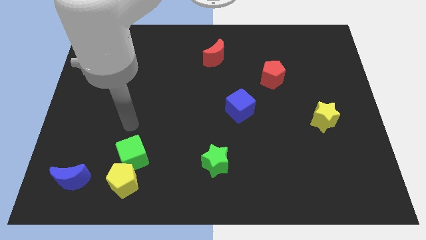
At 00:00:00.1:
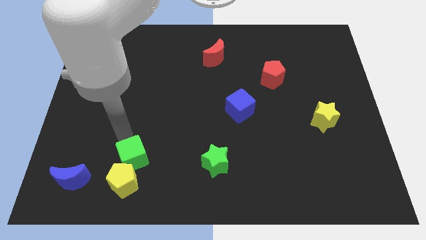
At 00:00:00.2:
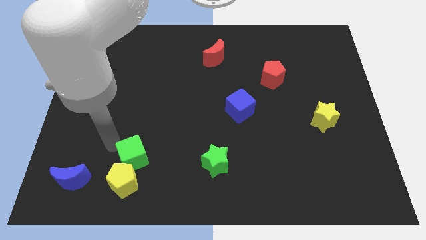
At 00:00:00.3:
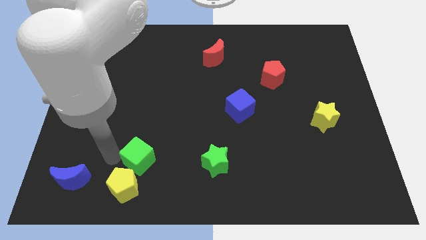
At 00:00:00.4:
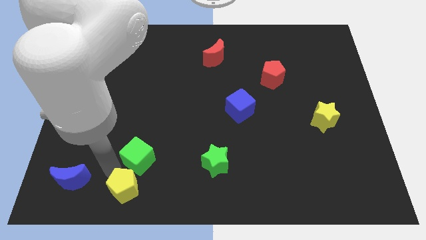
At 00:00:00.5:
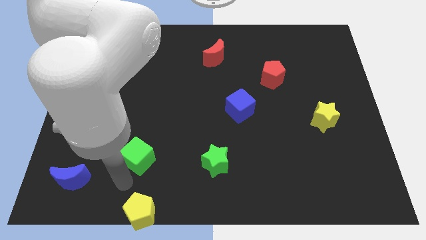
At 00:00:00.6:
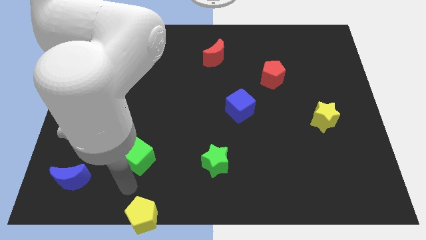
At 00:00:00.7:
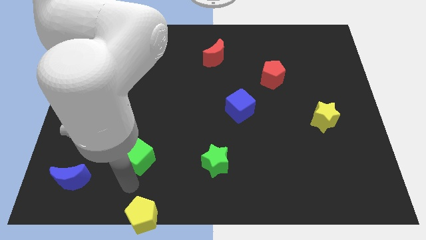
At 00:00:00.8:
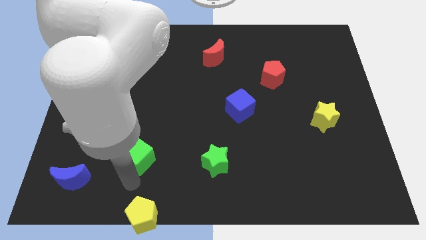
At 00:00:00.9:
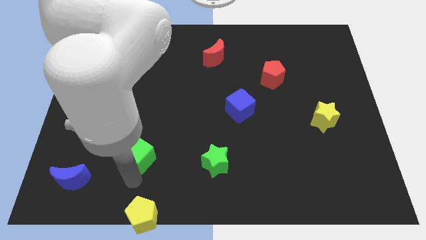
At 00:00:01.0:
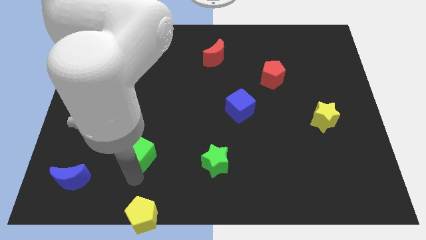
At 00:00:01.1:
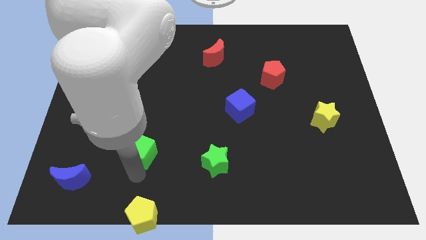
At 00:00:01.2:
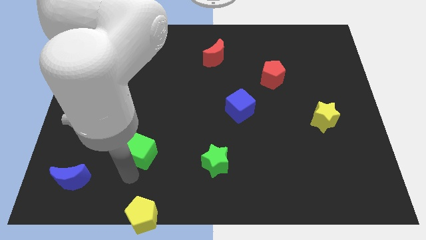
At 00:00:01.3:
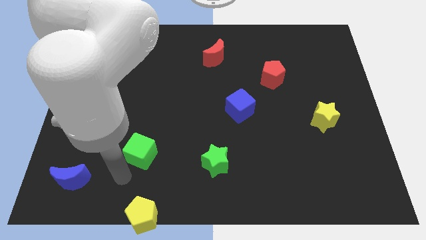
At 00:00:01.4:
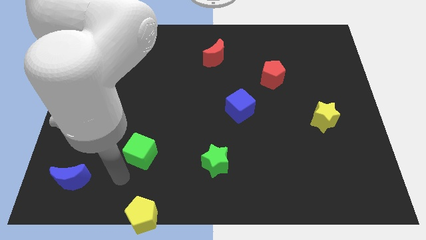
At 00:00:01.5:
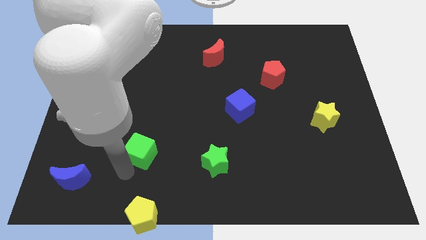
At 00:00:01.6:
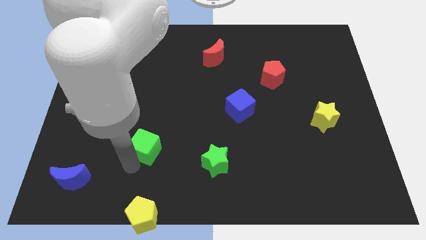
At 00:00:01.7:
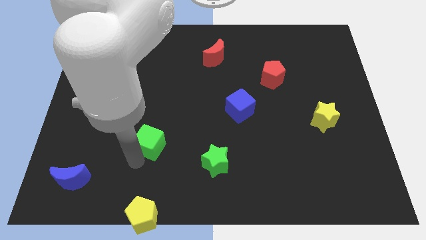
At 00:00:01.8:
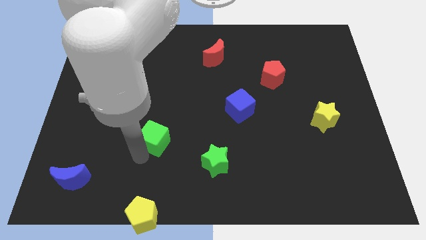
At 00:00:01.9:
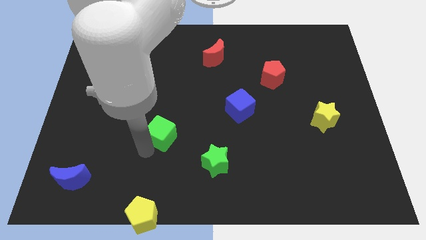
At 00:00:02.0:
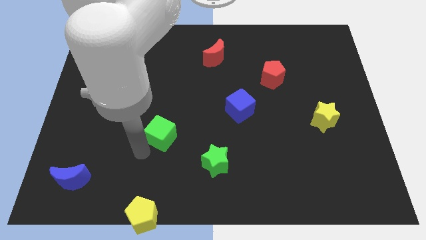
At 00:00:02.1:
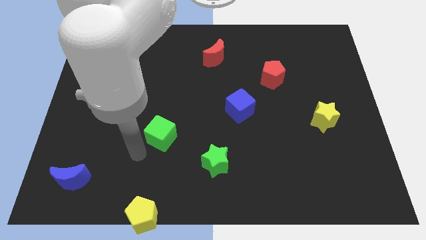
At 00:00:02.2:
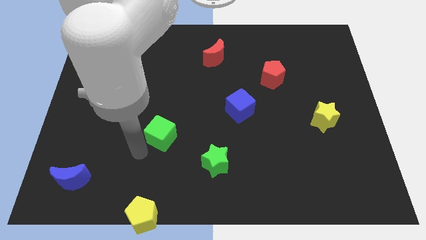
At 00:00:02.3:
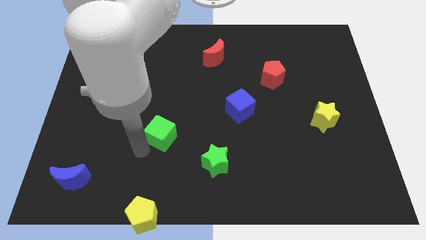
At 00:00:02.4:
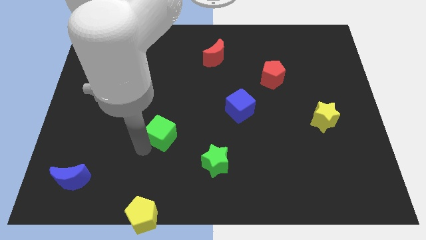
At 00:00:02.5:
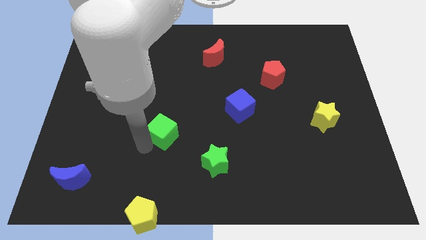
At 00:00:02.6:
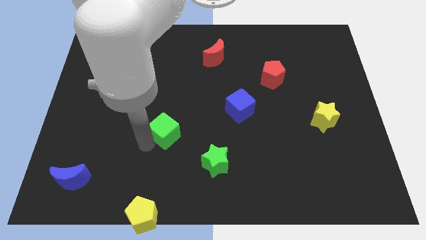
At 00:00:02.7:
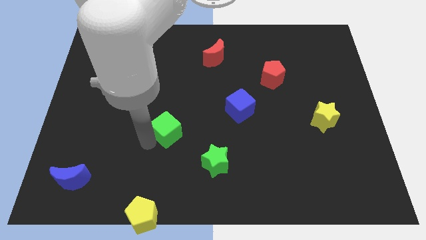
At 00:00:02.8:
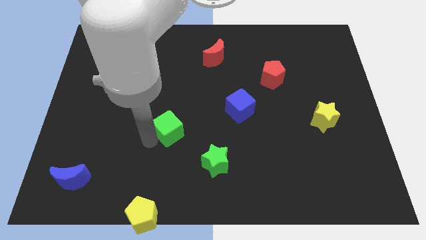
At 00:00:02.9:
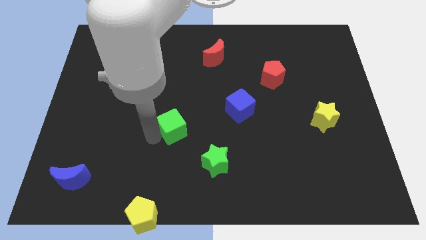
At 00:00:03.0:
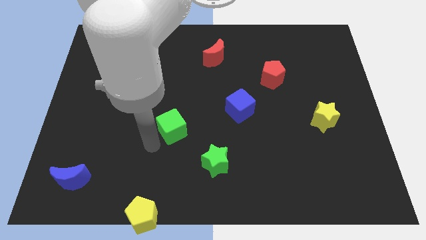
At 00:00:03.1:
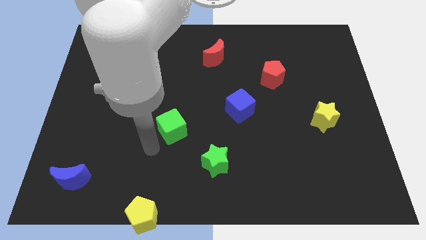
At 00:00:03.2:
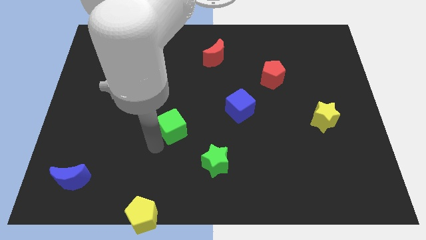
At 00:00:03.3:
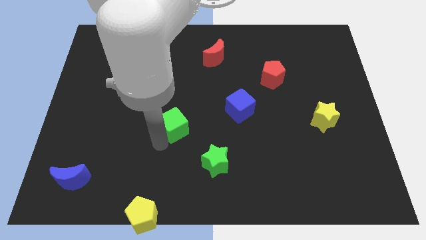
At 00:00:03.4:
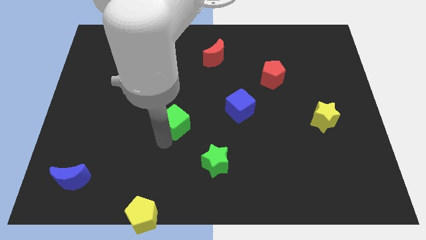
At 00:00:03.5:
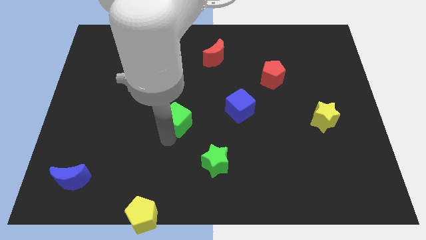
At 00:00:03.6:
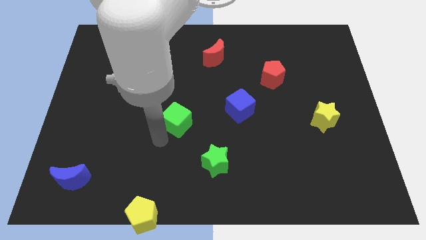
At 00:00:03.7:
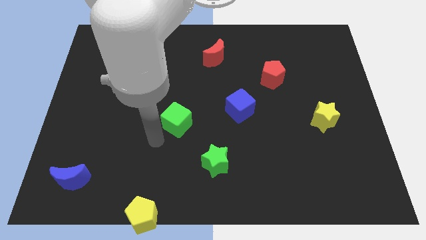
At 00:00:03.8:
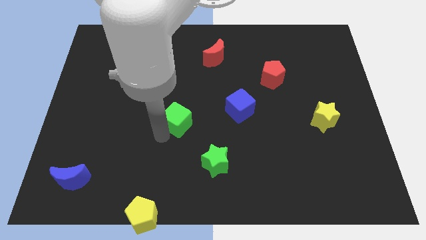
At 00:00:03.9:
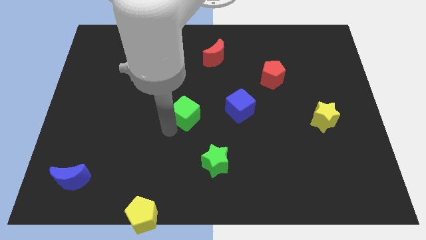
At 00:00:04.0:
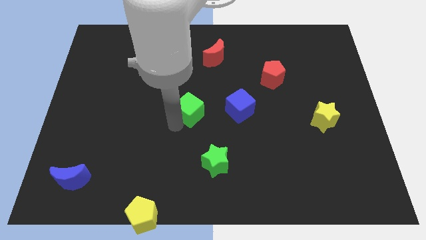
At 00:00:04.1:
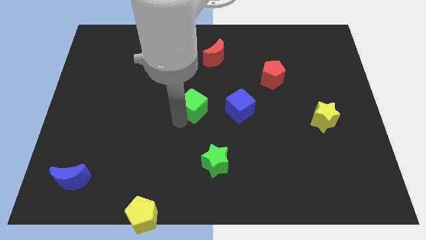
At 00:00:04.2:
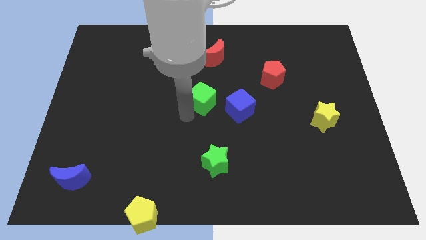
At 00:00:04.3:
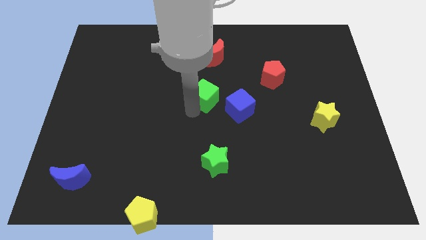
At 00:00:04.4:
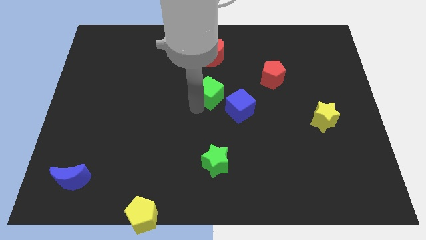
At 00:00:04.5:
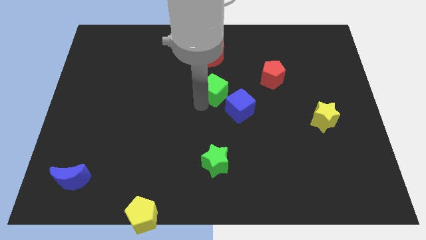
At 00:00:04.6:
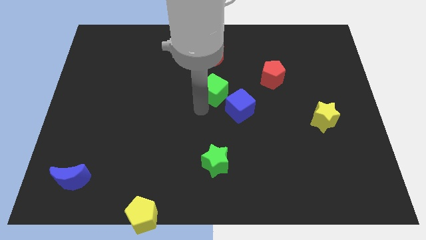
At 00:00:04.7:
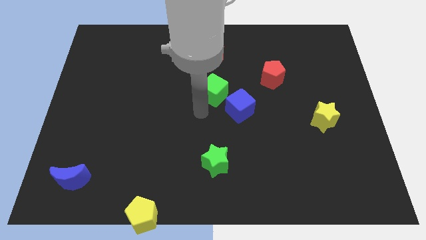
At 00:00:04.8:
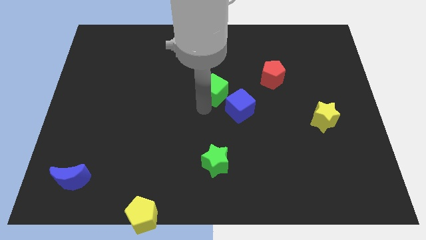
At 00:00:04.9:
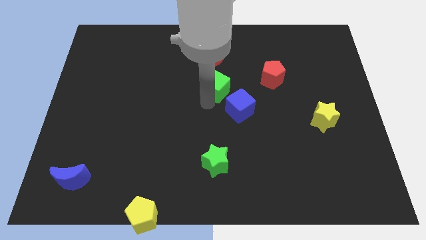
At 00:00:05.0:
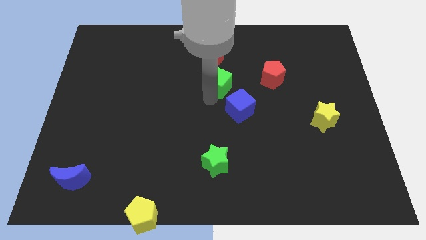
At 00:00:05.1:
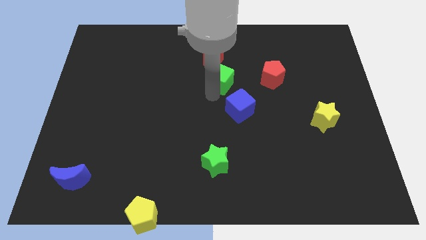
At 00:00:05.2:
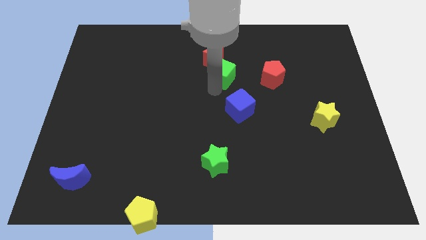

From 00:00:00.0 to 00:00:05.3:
slide the green cube diagonally down and to the right of the red moon

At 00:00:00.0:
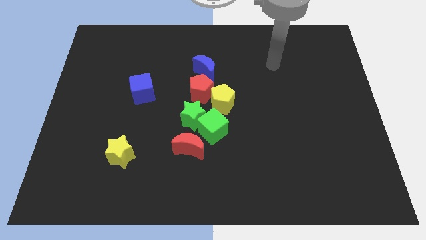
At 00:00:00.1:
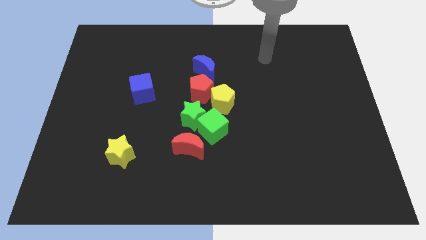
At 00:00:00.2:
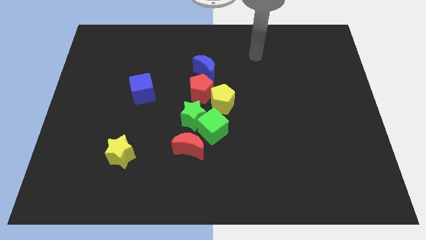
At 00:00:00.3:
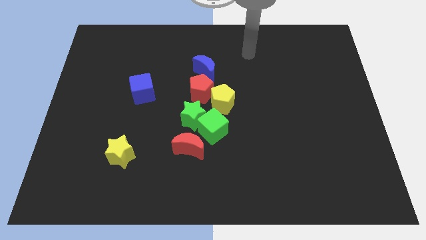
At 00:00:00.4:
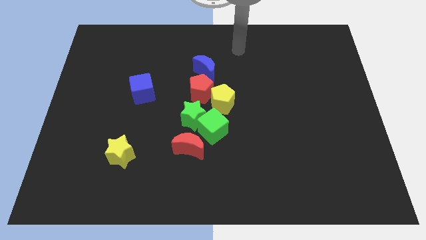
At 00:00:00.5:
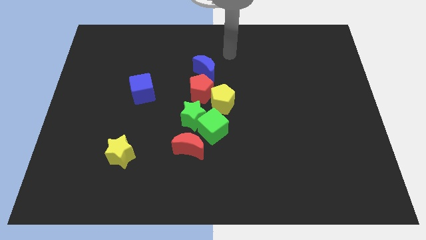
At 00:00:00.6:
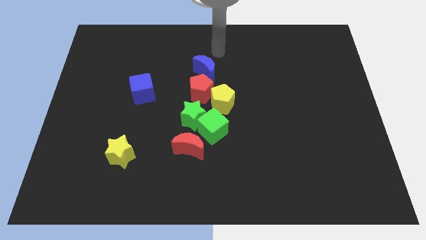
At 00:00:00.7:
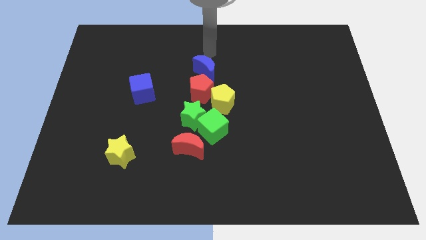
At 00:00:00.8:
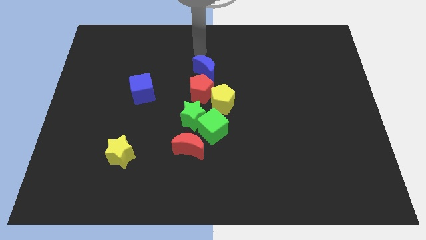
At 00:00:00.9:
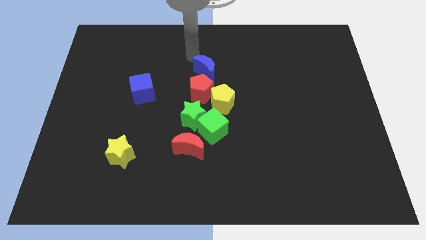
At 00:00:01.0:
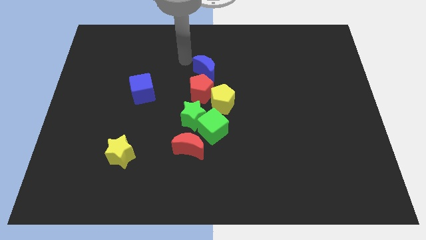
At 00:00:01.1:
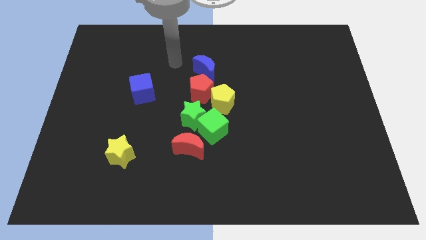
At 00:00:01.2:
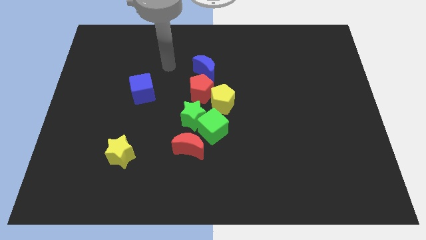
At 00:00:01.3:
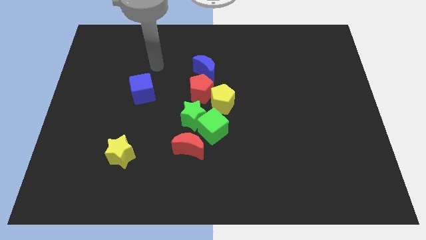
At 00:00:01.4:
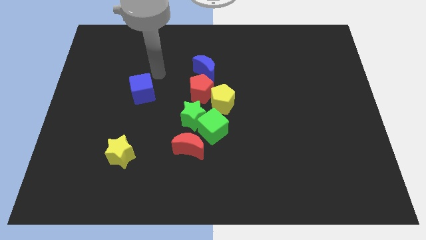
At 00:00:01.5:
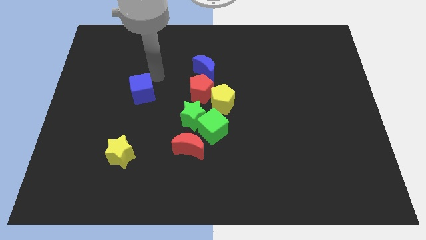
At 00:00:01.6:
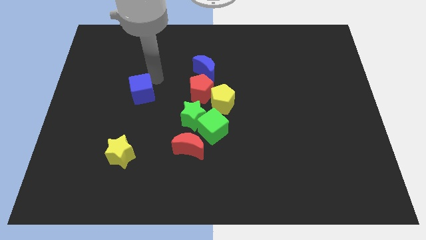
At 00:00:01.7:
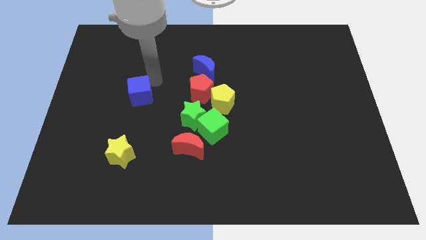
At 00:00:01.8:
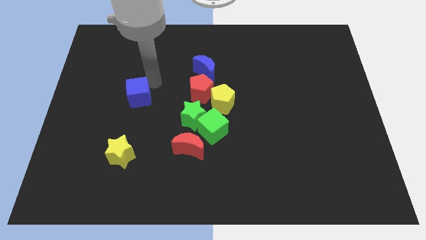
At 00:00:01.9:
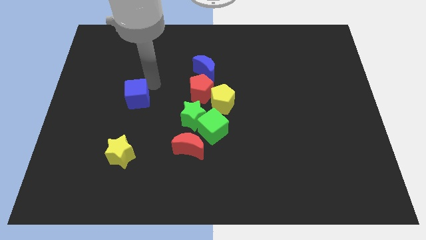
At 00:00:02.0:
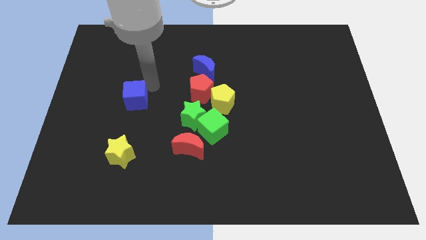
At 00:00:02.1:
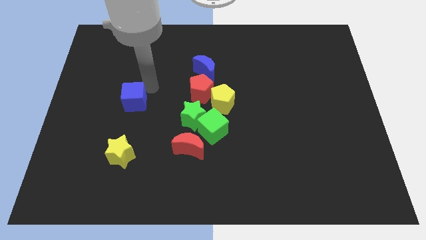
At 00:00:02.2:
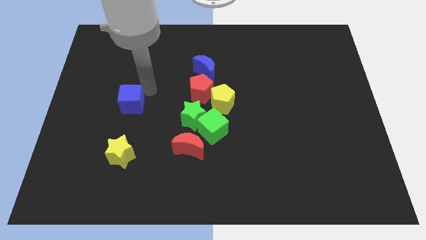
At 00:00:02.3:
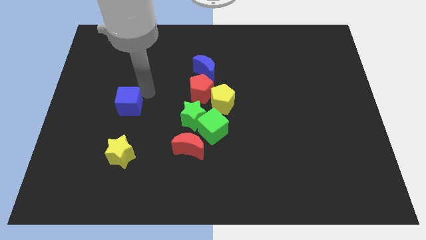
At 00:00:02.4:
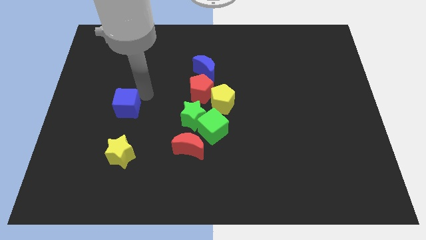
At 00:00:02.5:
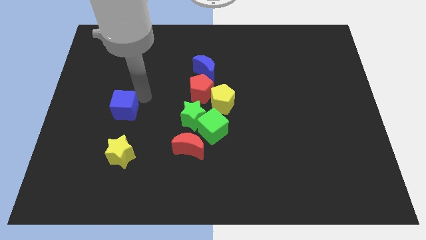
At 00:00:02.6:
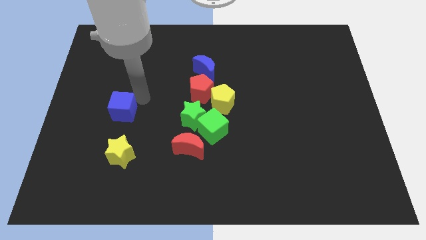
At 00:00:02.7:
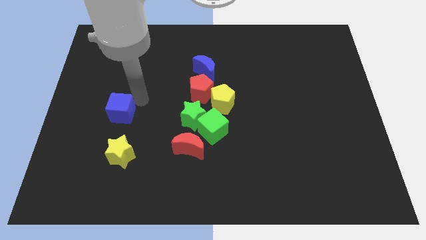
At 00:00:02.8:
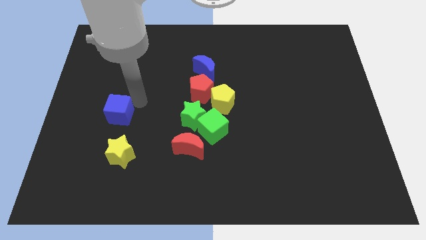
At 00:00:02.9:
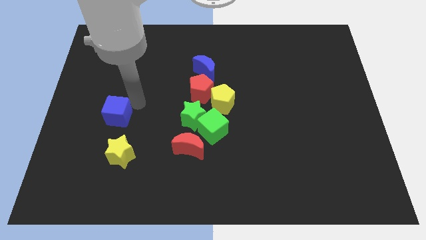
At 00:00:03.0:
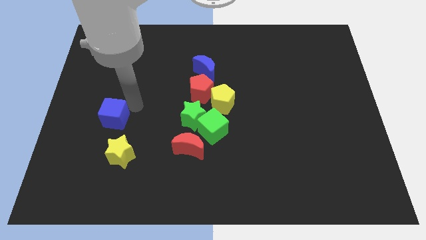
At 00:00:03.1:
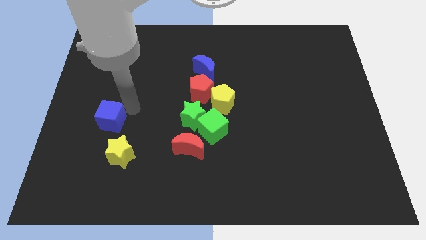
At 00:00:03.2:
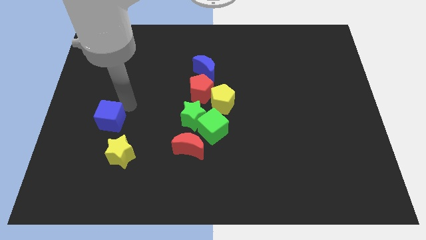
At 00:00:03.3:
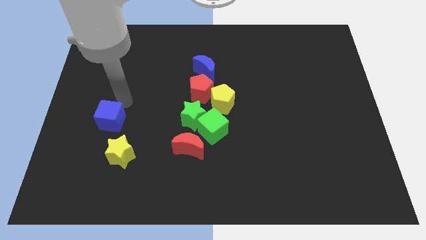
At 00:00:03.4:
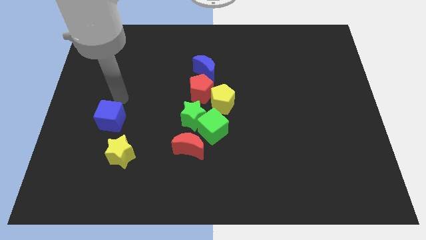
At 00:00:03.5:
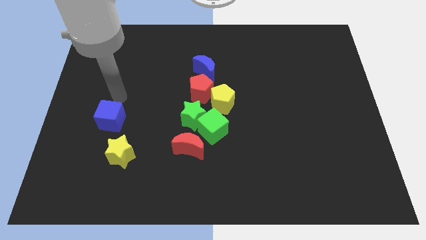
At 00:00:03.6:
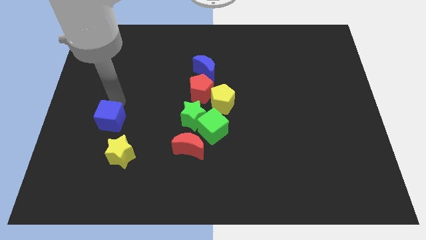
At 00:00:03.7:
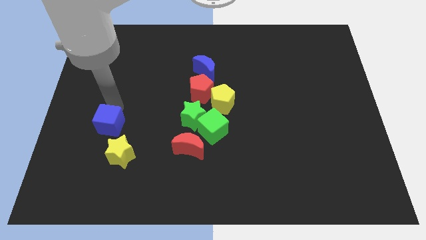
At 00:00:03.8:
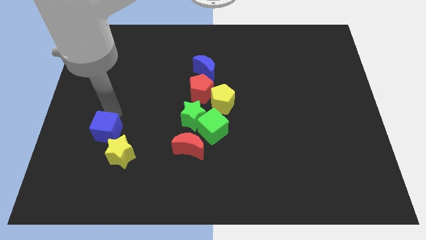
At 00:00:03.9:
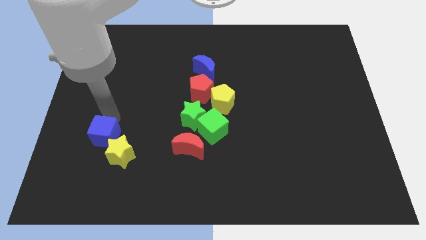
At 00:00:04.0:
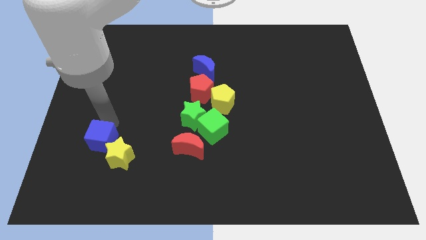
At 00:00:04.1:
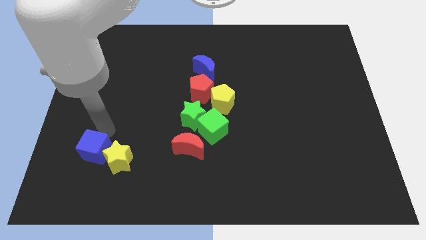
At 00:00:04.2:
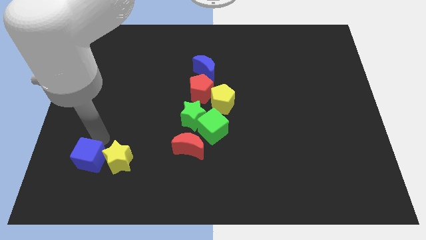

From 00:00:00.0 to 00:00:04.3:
put the blue cube to the bottom left of the yellow star
